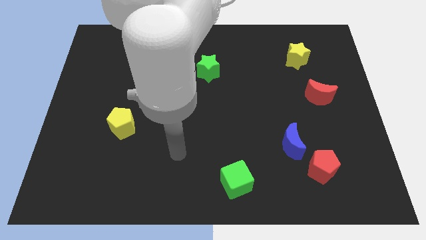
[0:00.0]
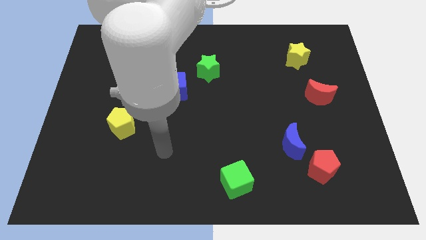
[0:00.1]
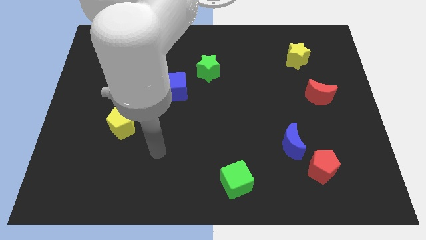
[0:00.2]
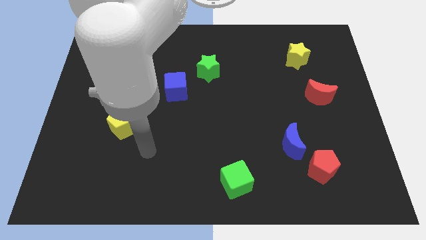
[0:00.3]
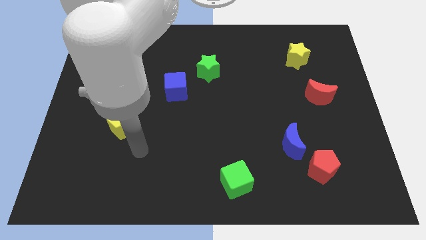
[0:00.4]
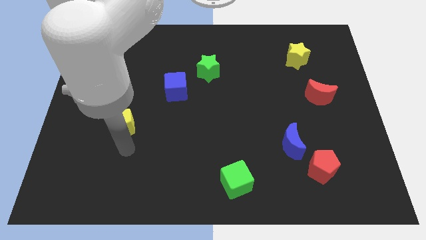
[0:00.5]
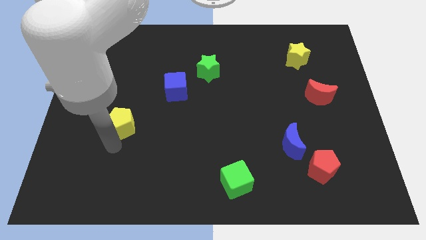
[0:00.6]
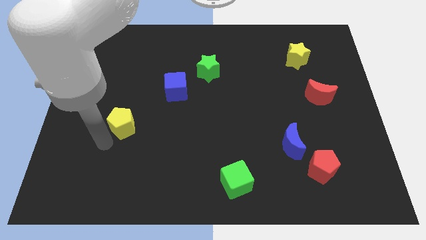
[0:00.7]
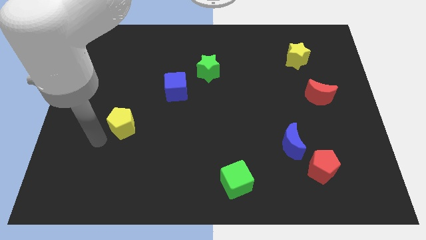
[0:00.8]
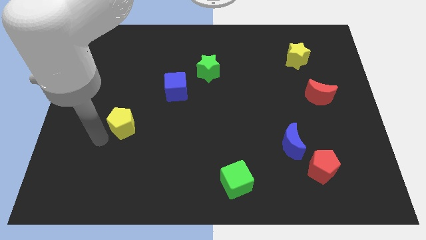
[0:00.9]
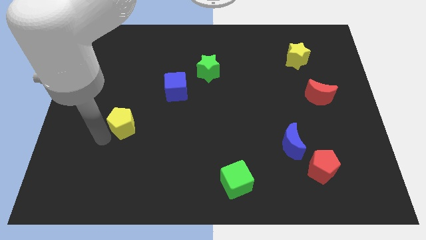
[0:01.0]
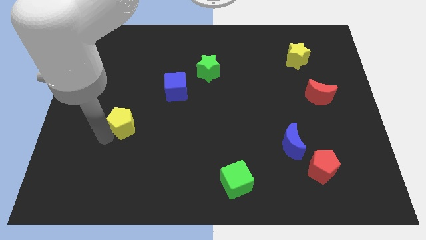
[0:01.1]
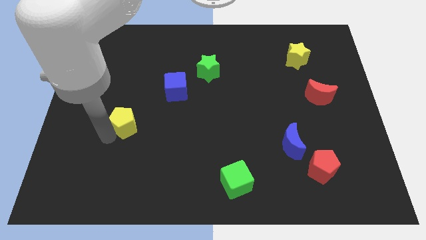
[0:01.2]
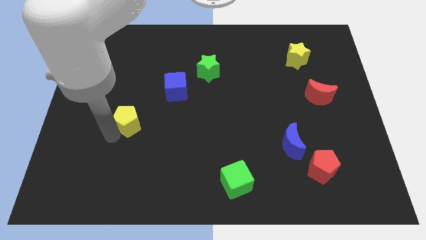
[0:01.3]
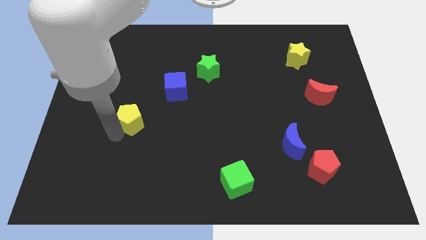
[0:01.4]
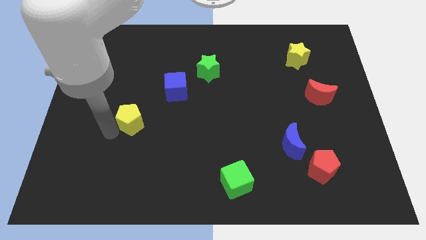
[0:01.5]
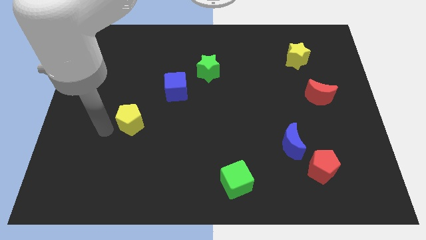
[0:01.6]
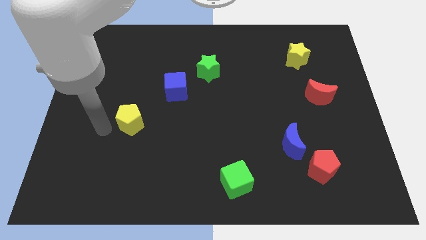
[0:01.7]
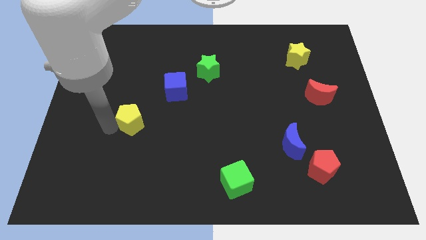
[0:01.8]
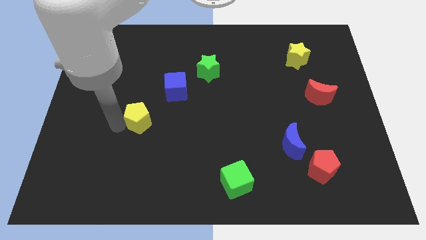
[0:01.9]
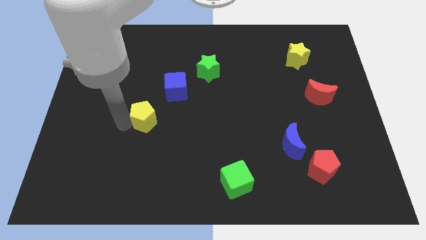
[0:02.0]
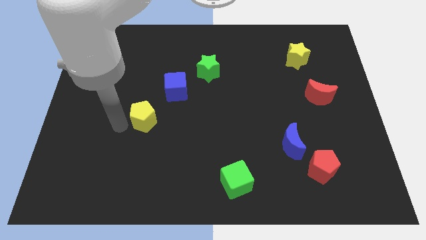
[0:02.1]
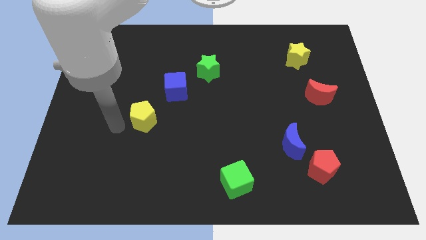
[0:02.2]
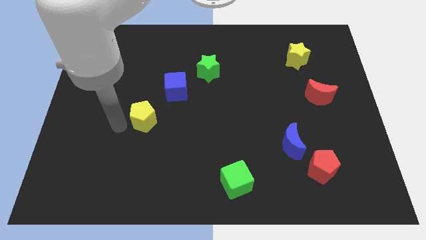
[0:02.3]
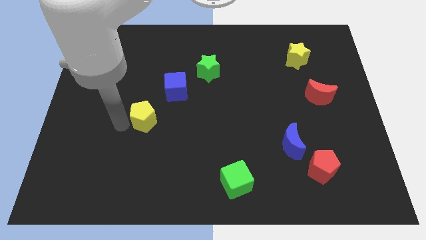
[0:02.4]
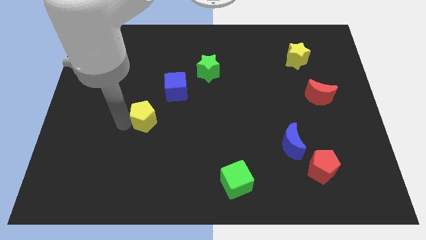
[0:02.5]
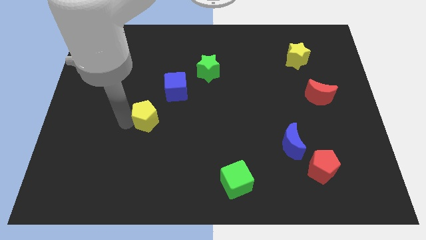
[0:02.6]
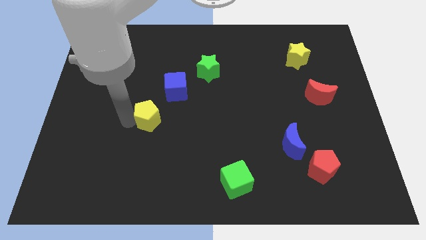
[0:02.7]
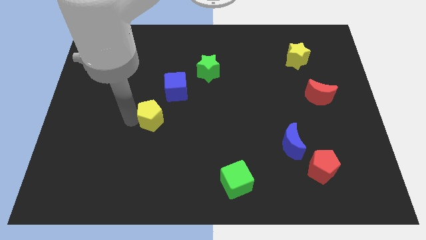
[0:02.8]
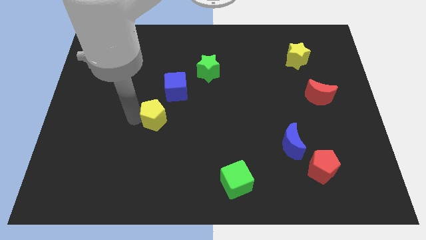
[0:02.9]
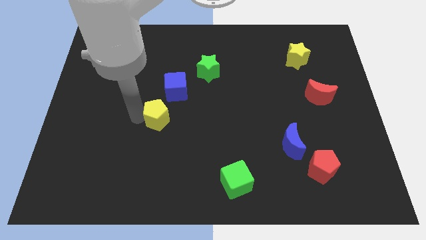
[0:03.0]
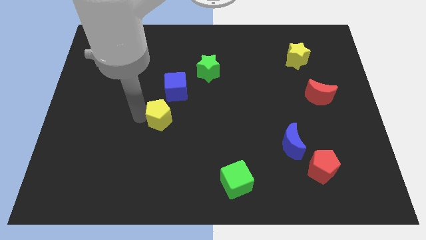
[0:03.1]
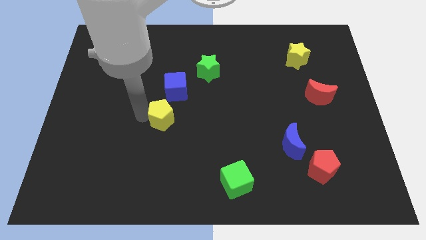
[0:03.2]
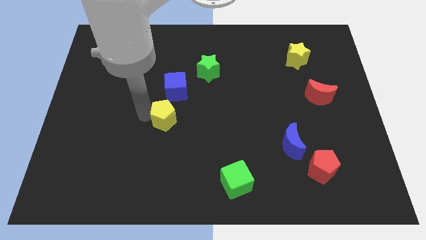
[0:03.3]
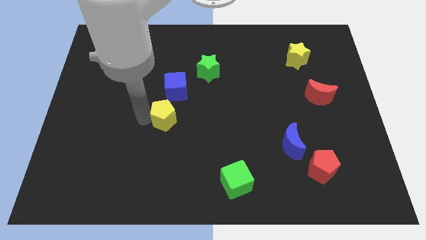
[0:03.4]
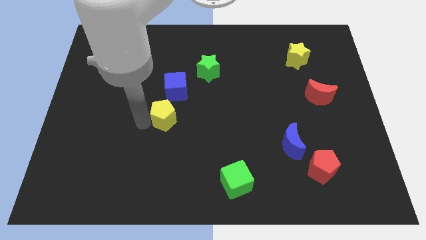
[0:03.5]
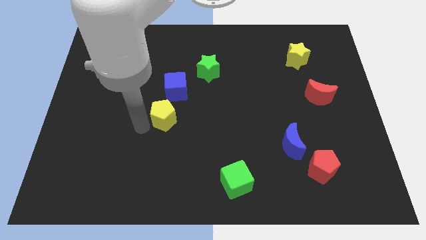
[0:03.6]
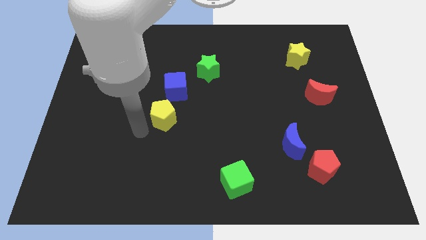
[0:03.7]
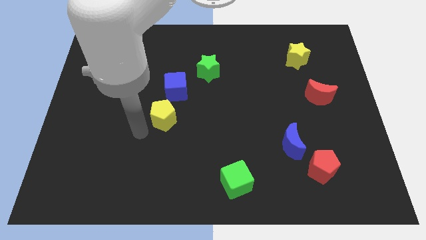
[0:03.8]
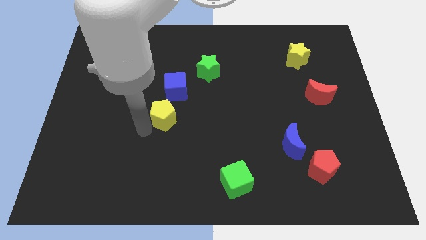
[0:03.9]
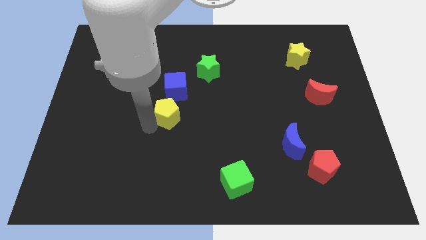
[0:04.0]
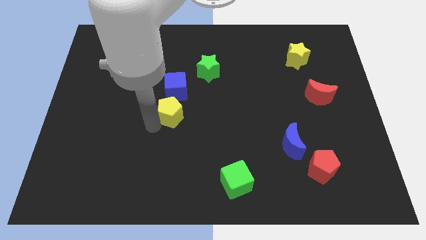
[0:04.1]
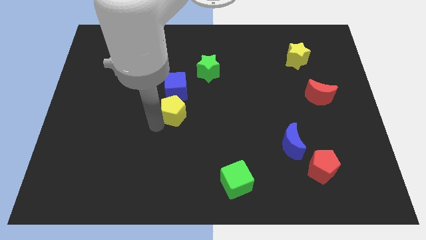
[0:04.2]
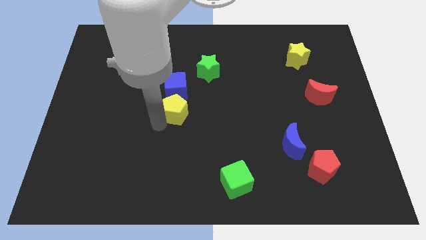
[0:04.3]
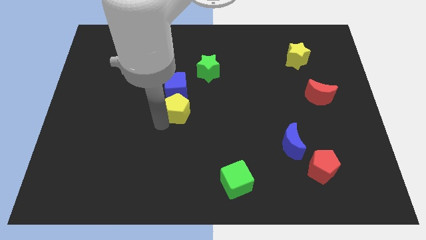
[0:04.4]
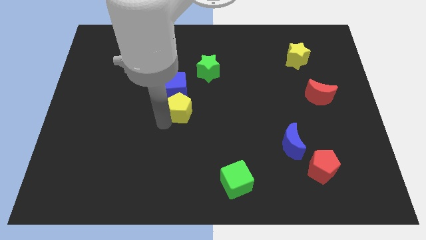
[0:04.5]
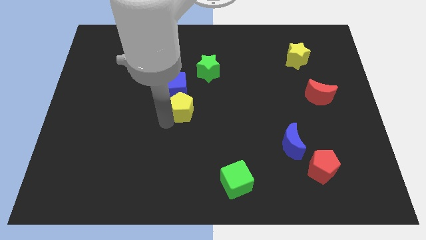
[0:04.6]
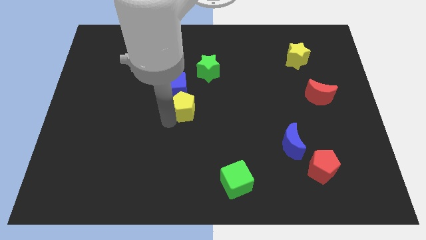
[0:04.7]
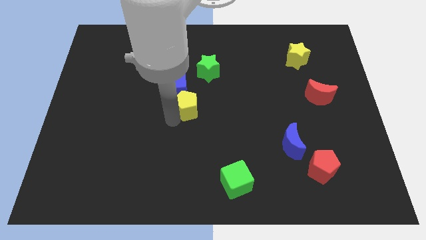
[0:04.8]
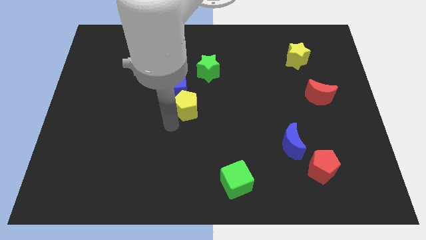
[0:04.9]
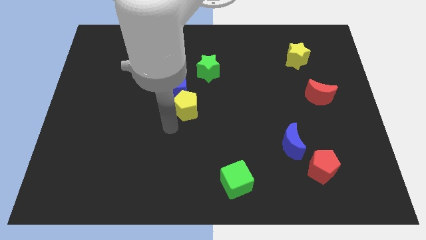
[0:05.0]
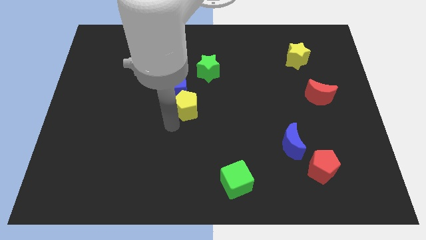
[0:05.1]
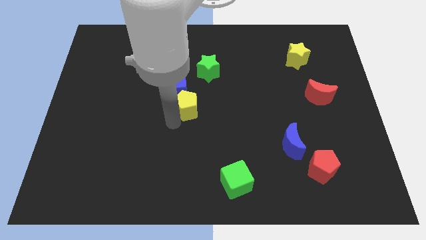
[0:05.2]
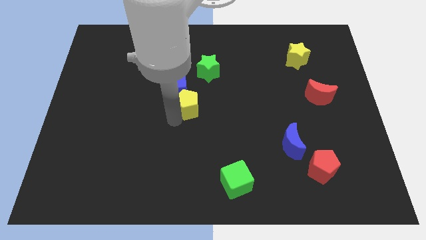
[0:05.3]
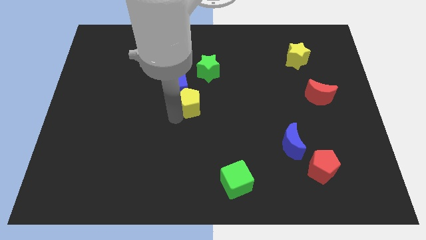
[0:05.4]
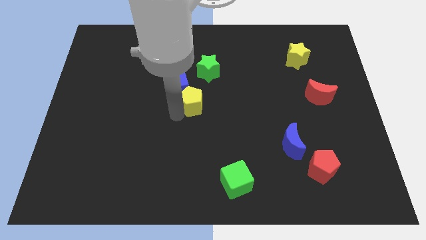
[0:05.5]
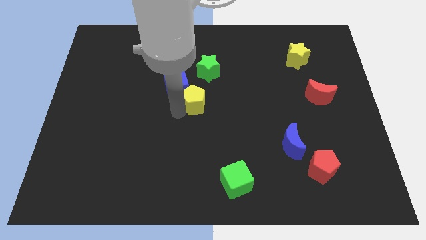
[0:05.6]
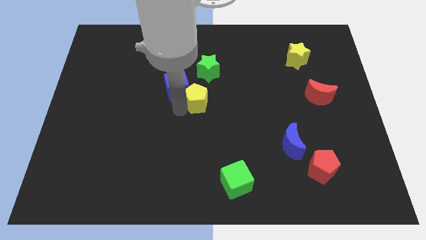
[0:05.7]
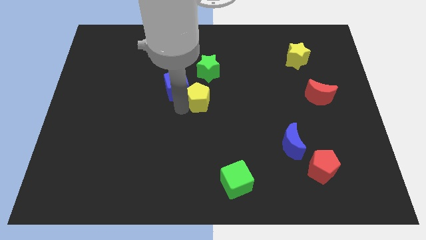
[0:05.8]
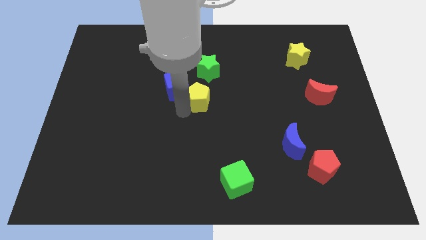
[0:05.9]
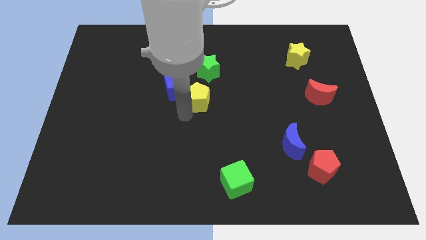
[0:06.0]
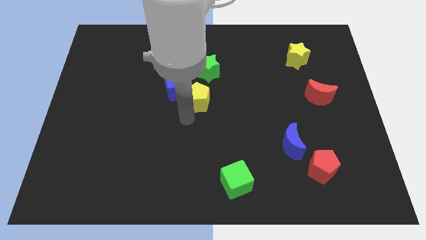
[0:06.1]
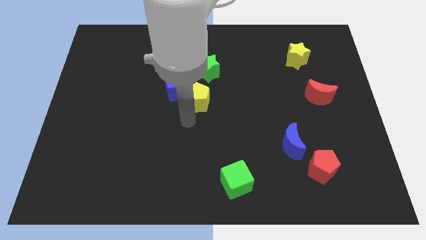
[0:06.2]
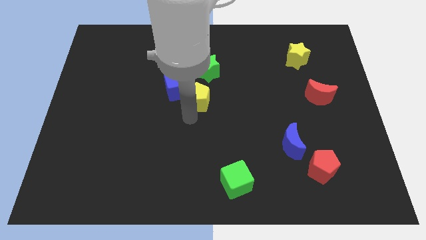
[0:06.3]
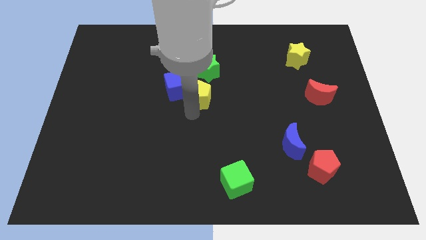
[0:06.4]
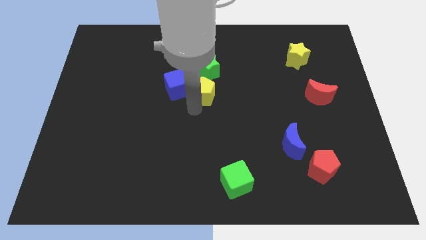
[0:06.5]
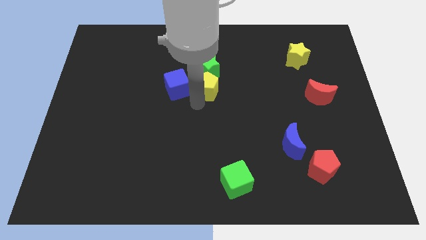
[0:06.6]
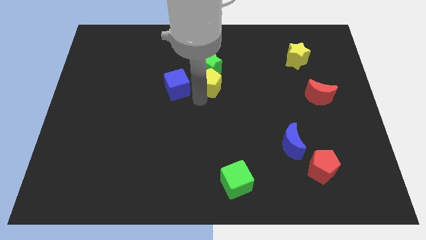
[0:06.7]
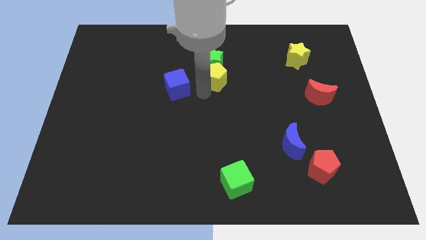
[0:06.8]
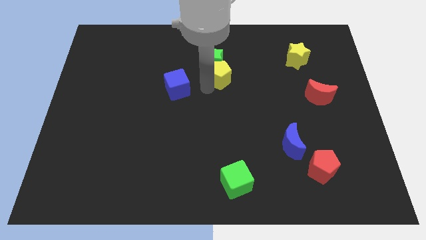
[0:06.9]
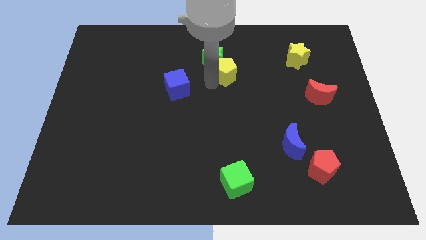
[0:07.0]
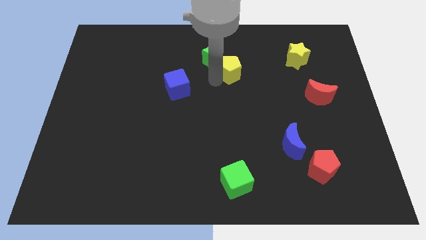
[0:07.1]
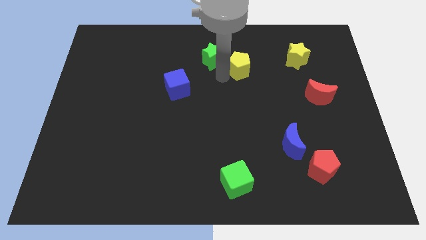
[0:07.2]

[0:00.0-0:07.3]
move the yellow pentagon left of the yellow star
